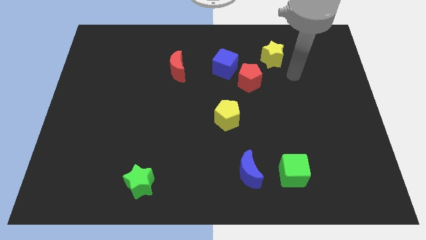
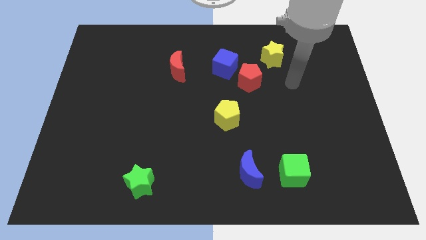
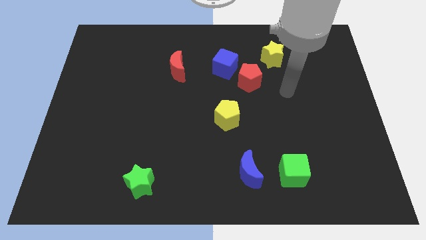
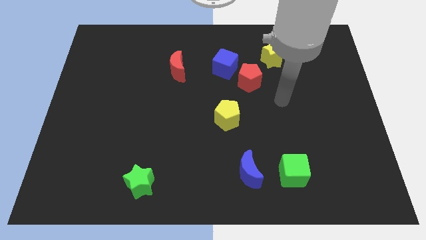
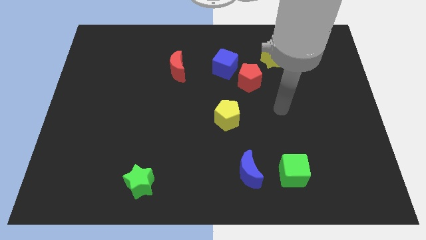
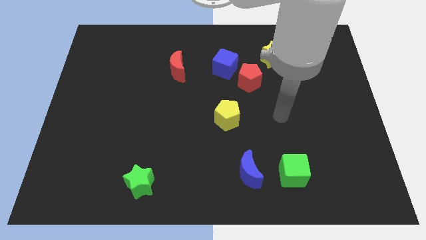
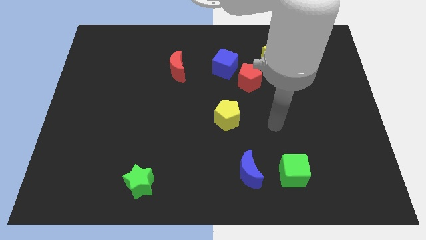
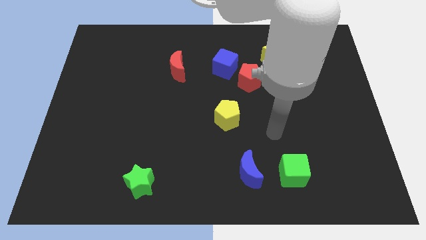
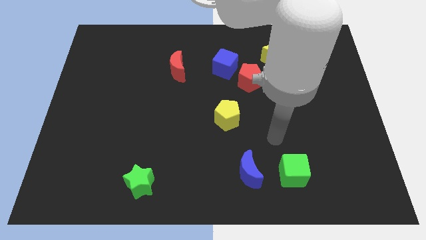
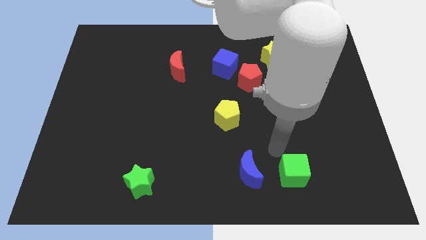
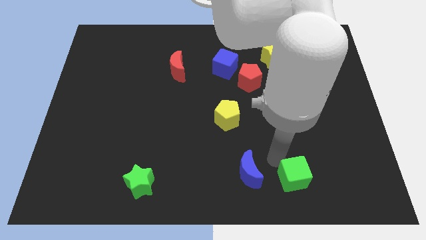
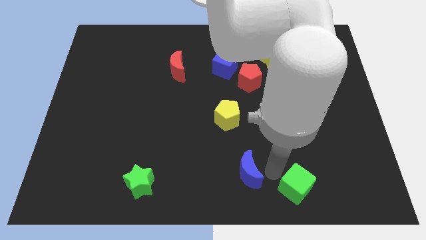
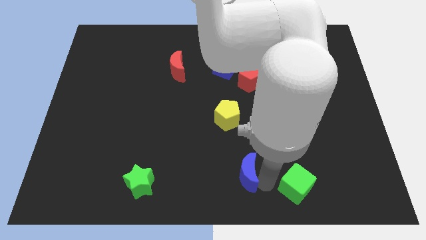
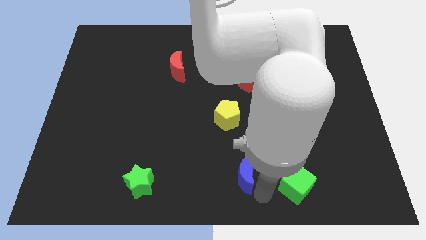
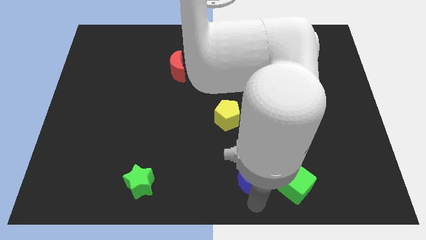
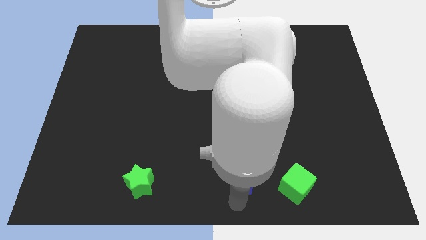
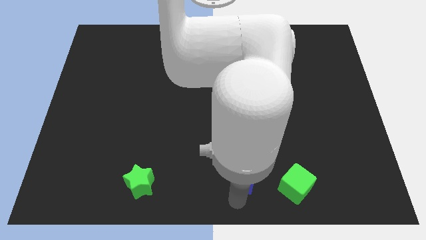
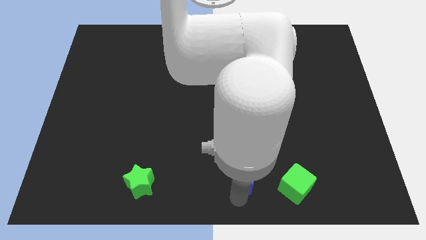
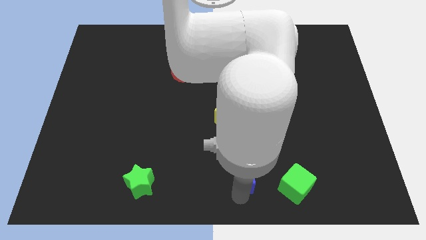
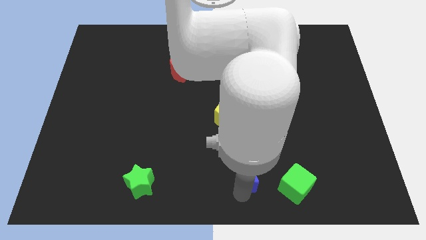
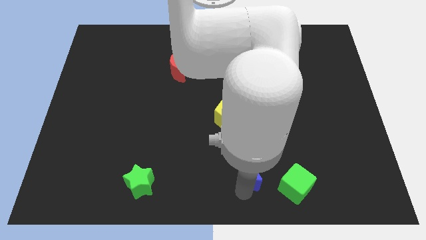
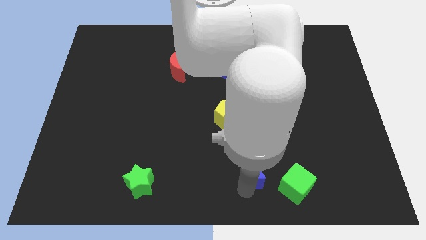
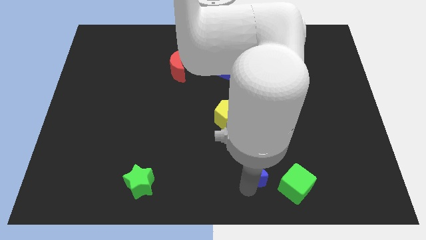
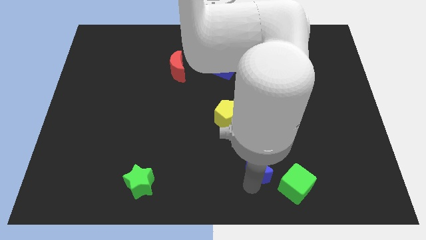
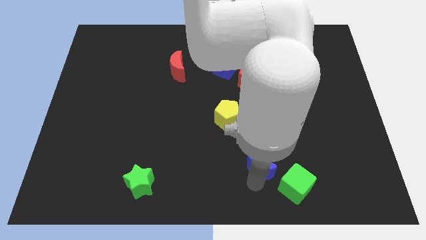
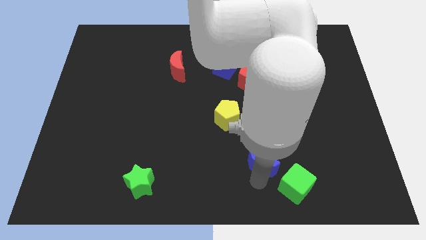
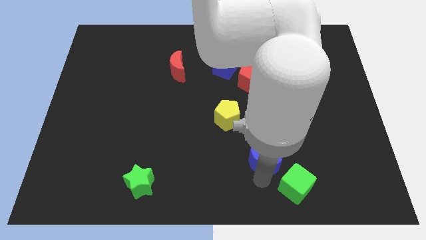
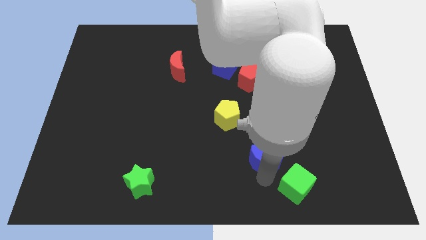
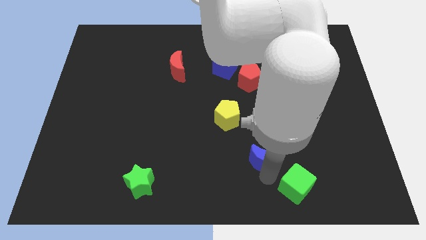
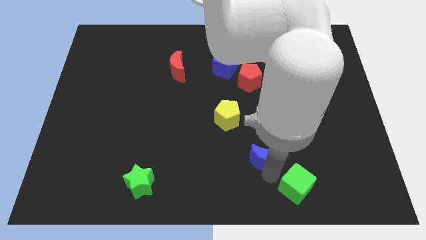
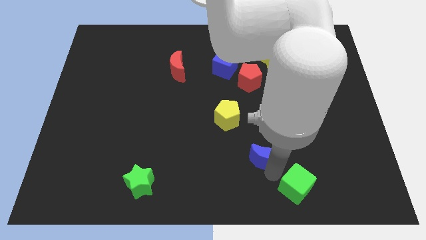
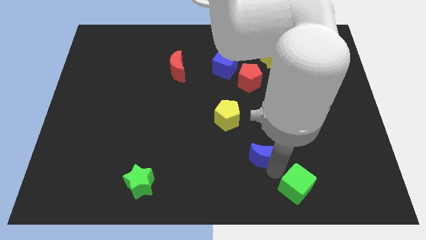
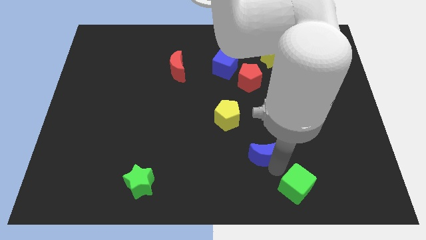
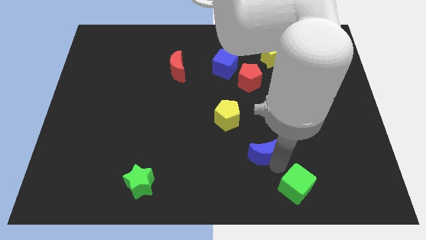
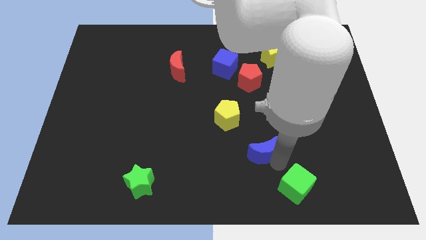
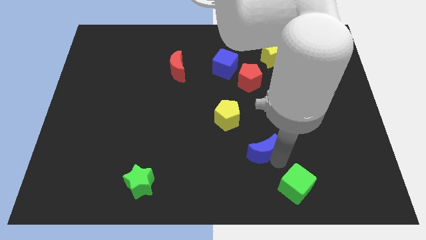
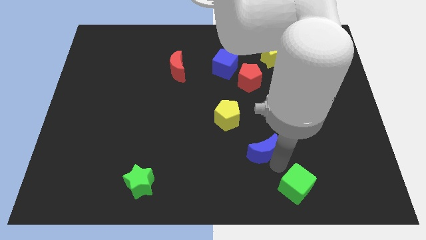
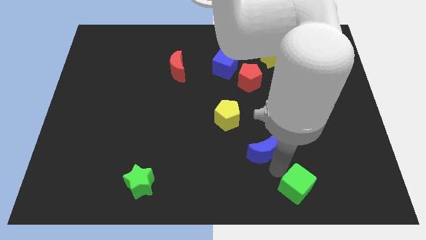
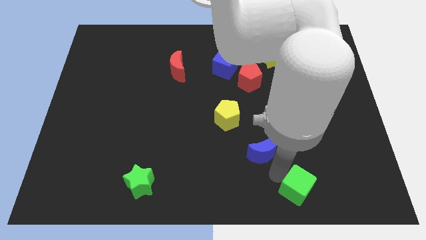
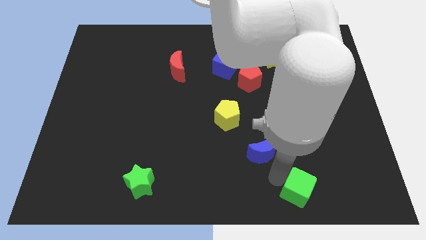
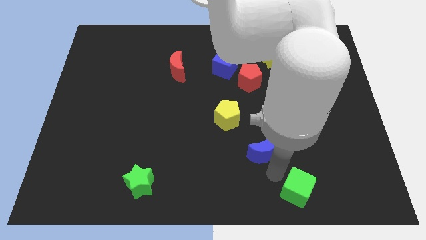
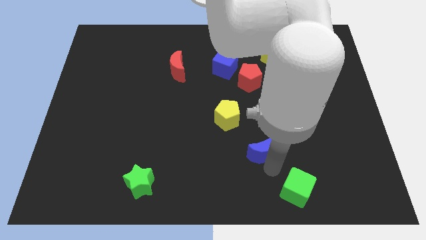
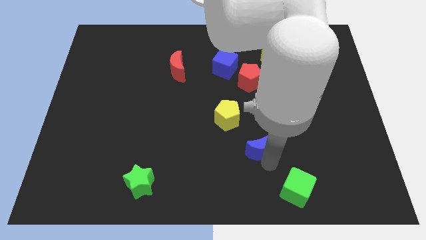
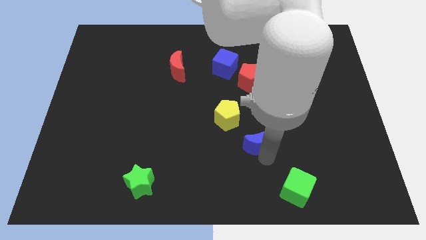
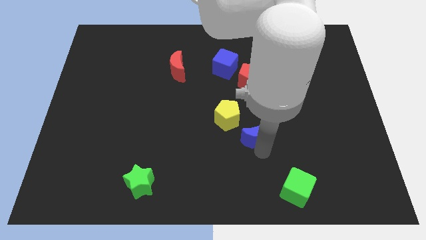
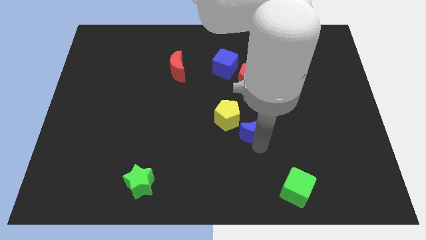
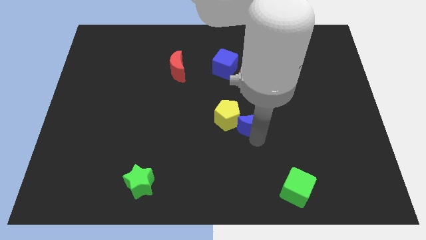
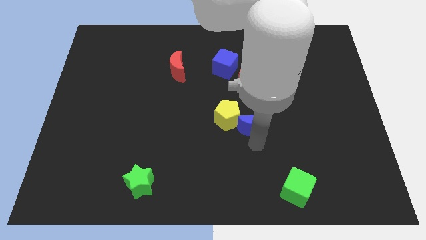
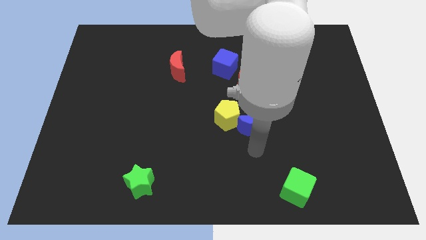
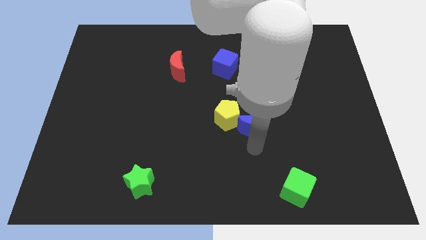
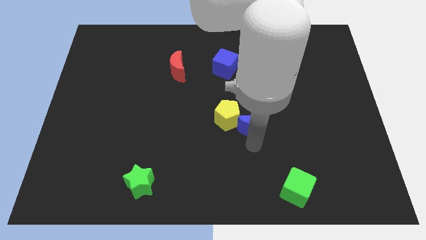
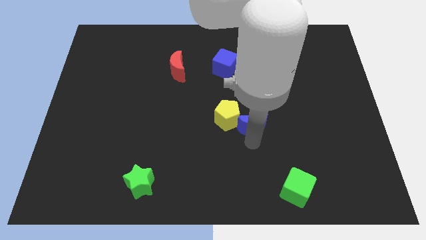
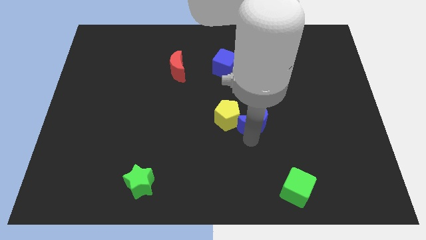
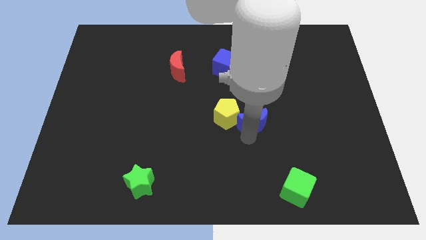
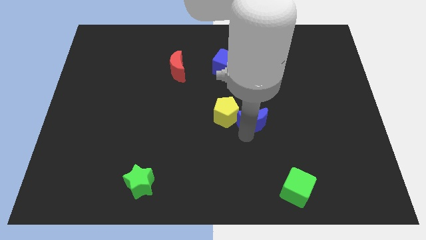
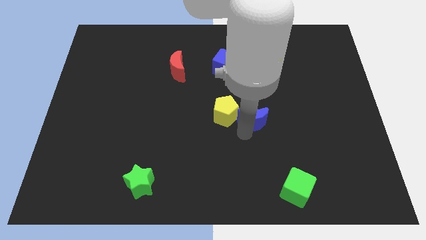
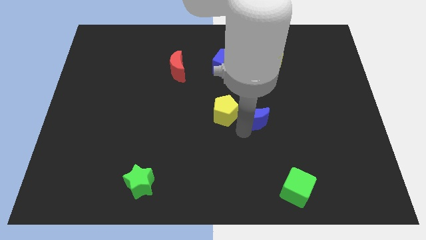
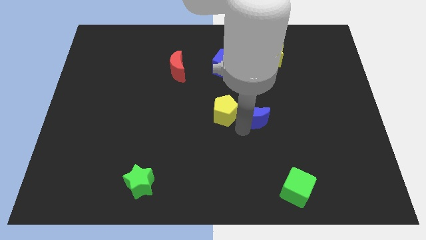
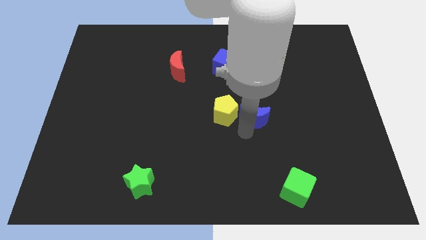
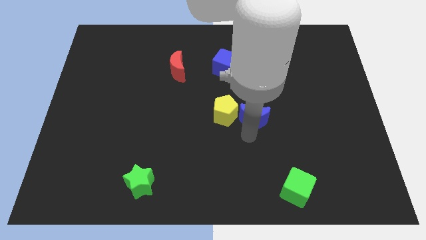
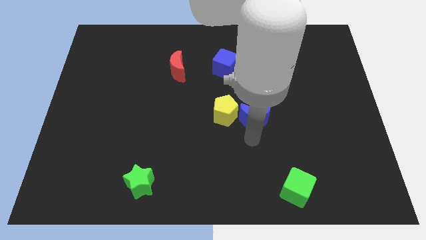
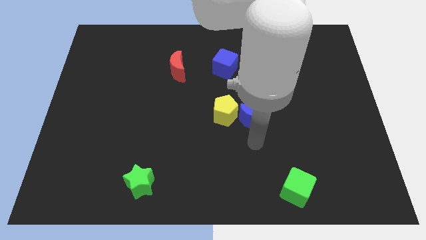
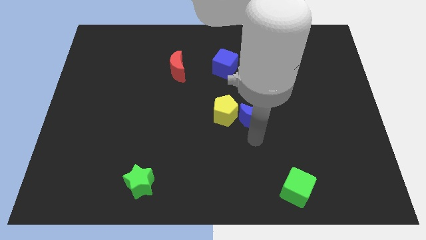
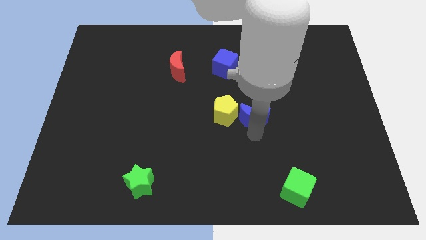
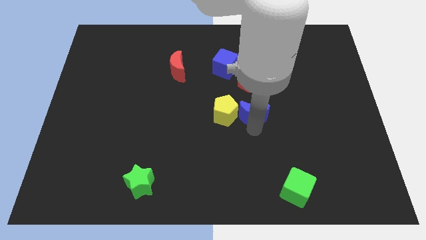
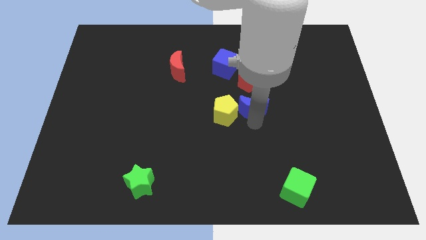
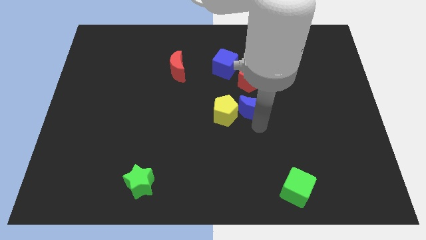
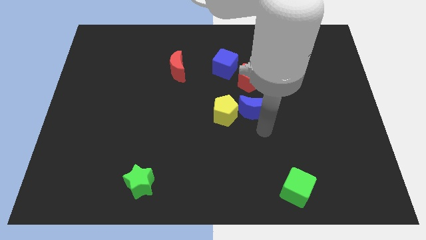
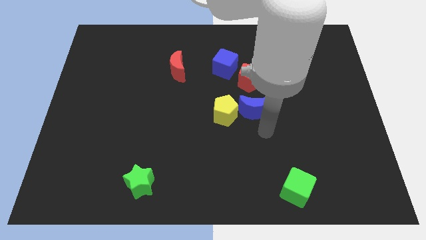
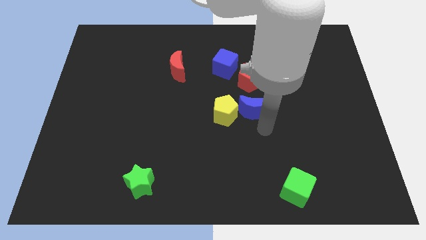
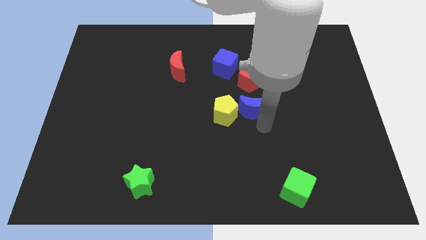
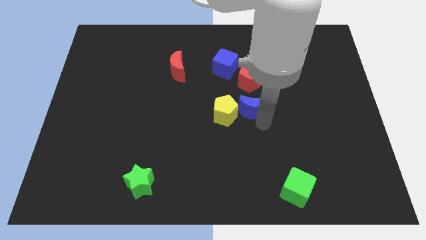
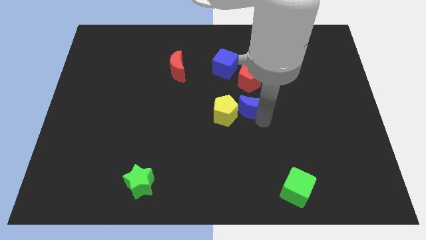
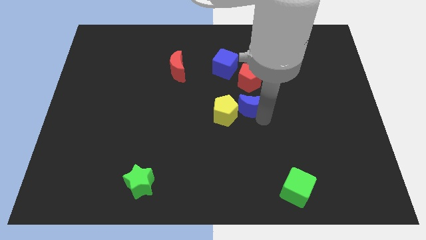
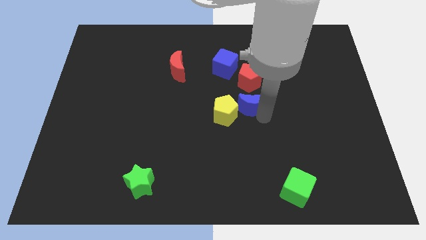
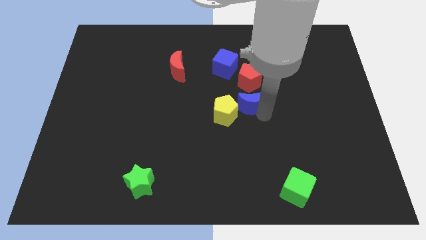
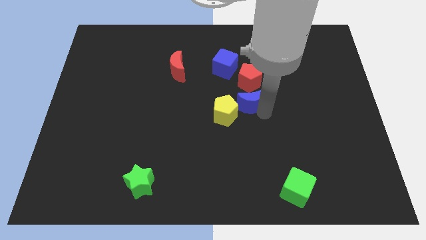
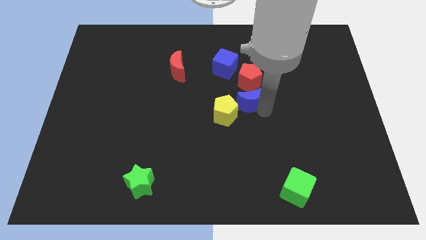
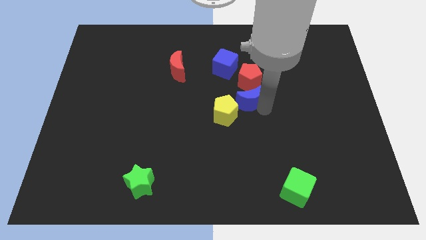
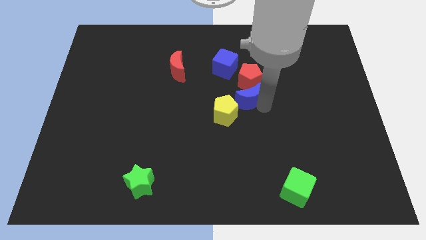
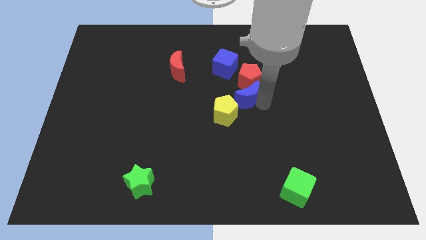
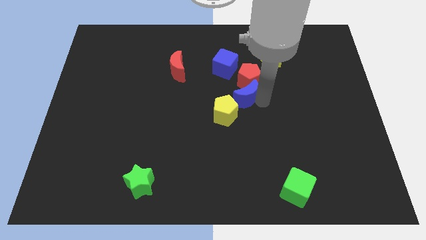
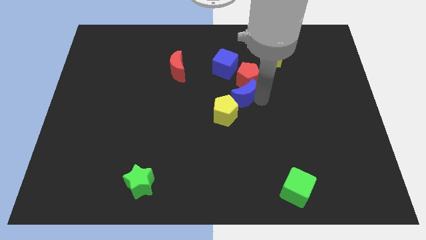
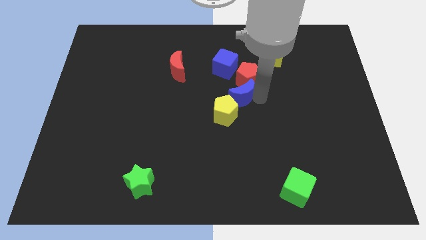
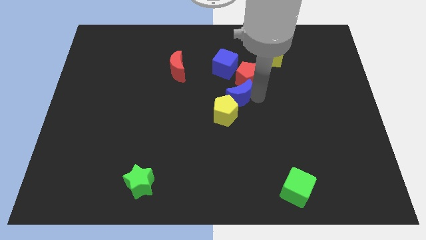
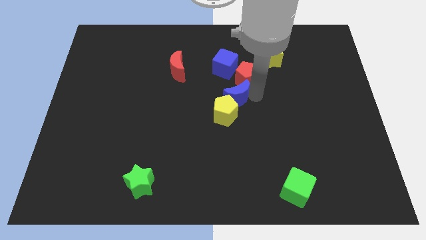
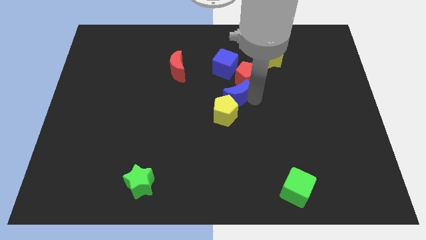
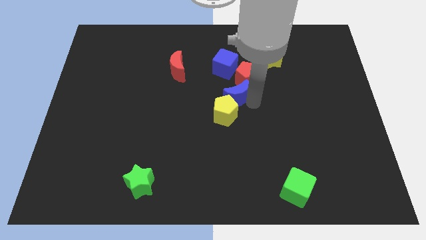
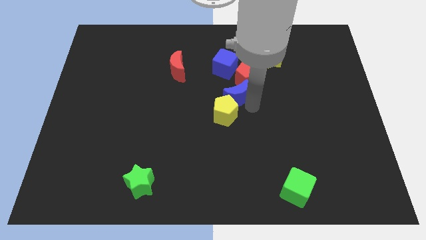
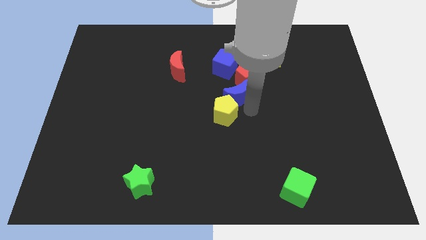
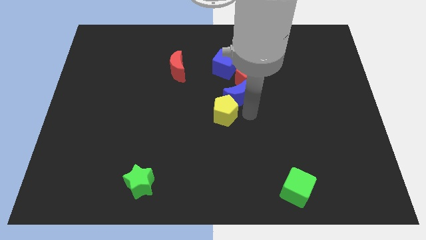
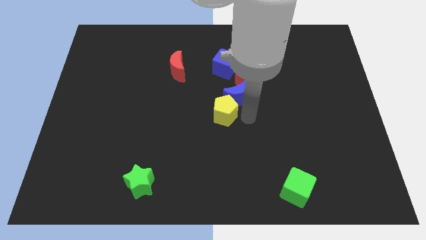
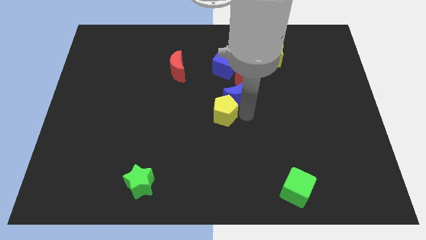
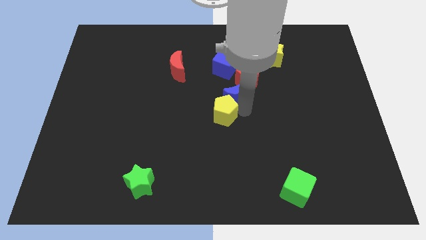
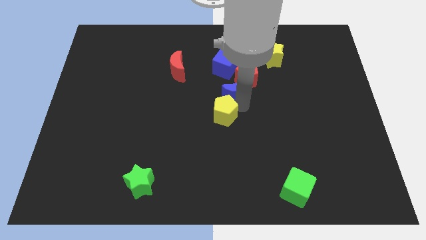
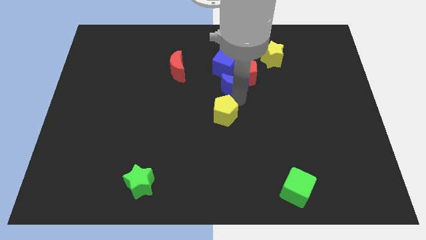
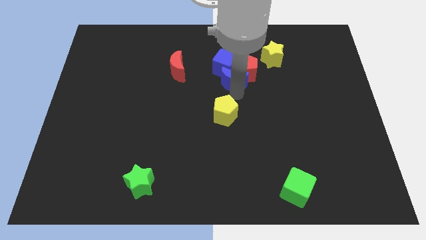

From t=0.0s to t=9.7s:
move the blue moon next to the blue cube
